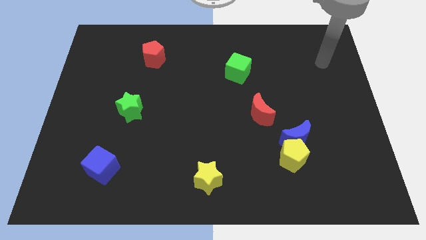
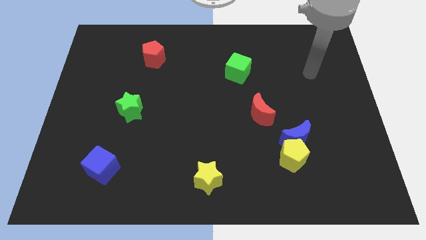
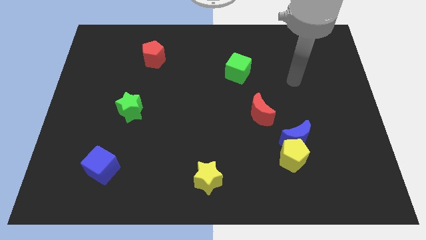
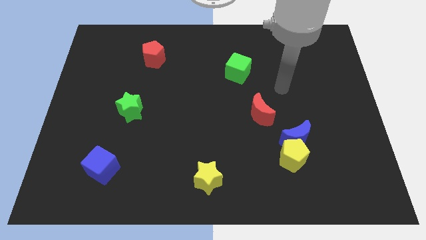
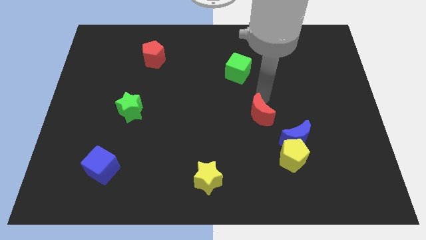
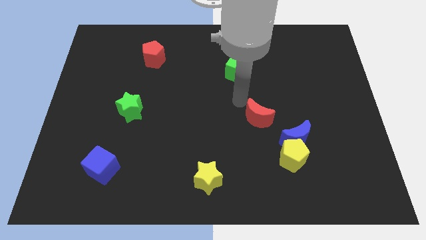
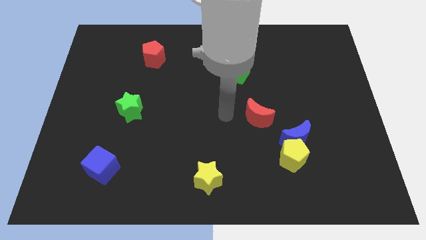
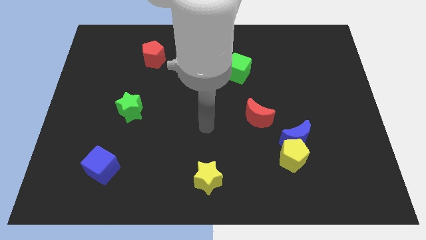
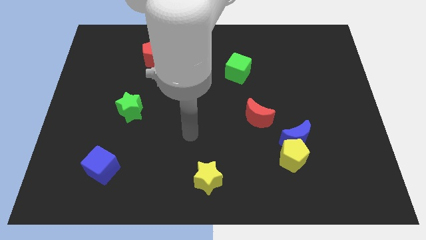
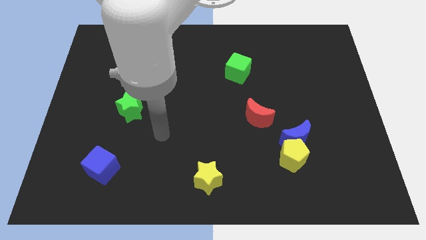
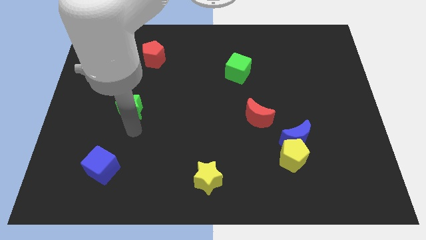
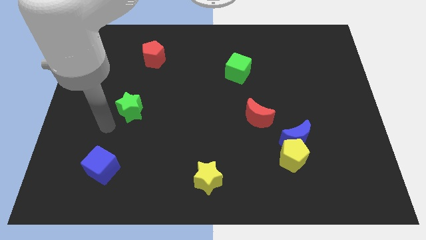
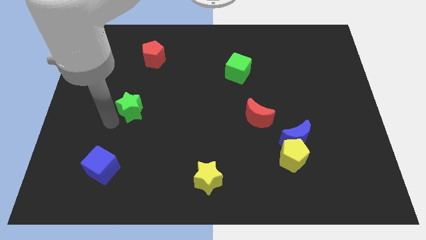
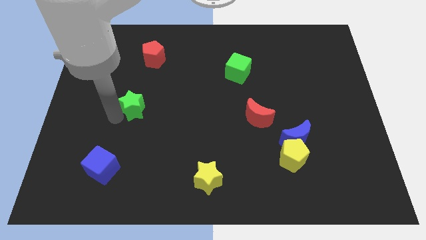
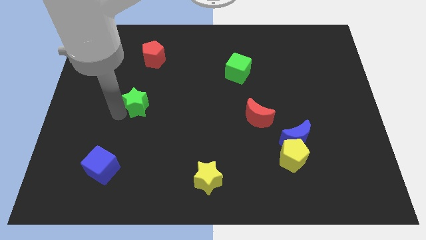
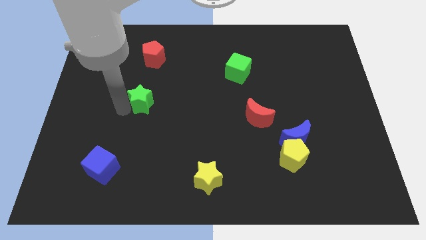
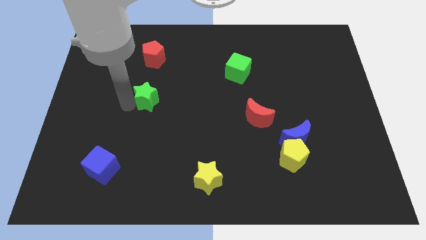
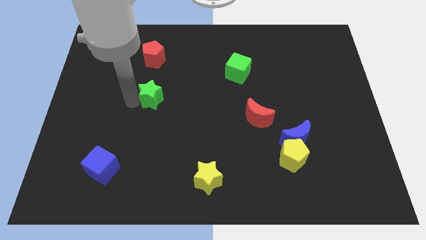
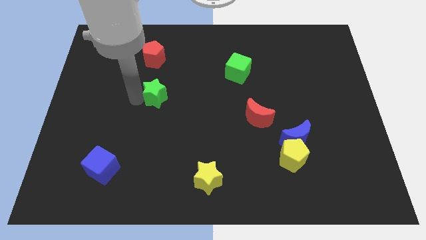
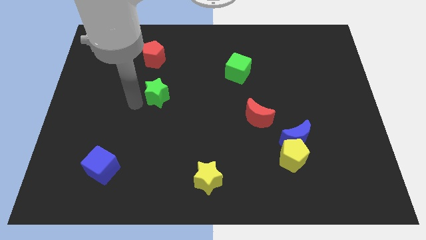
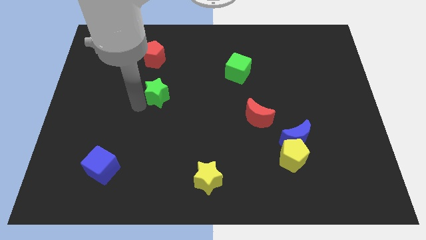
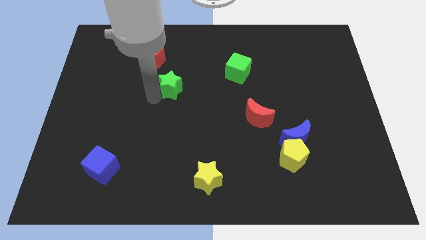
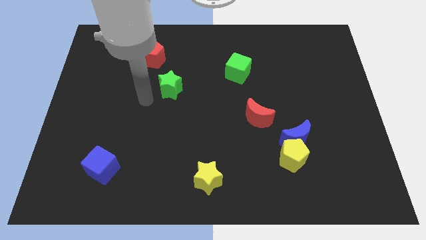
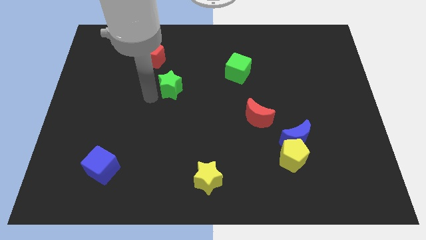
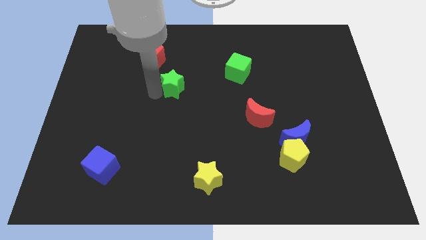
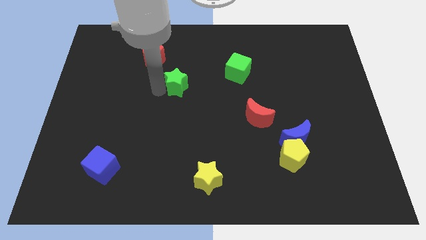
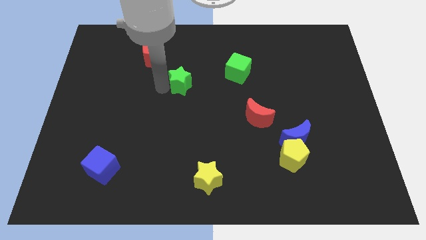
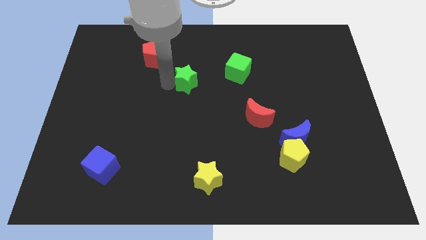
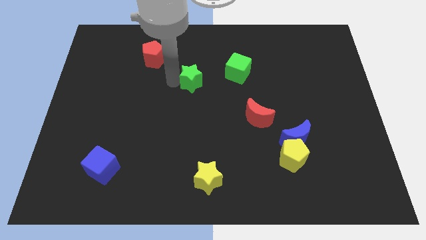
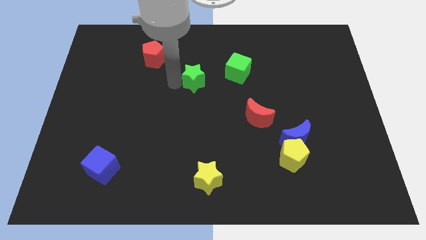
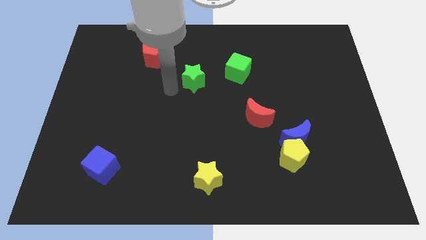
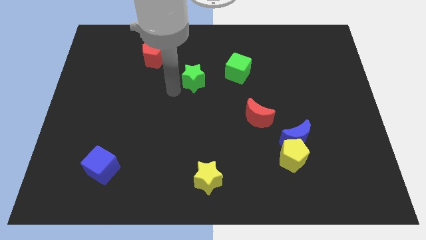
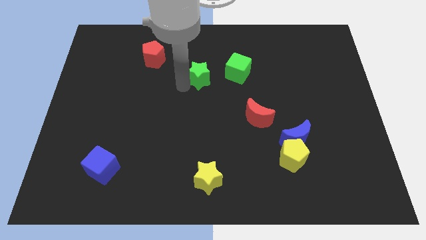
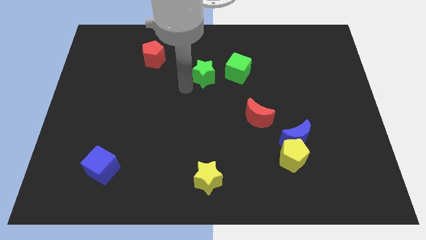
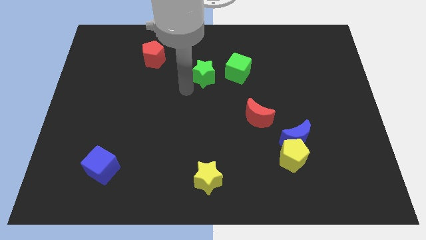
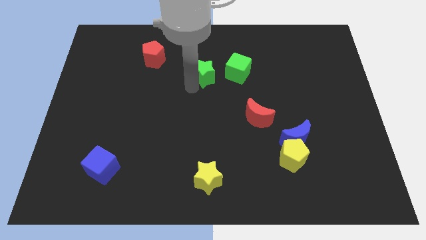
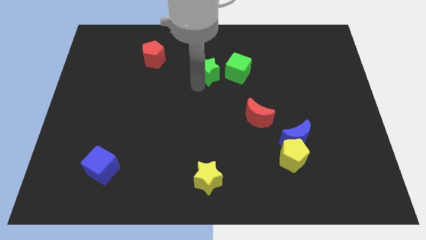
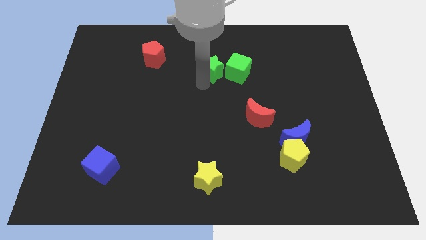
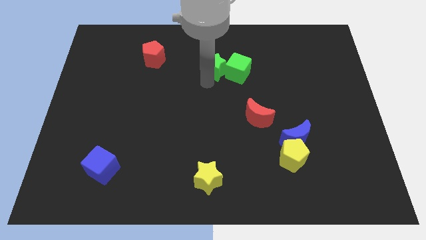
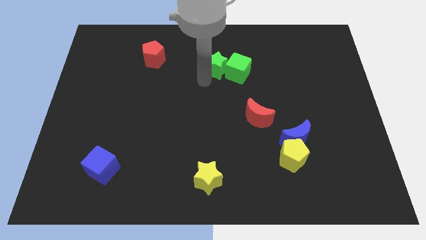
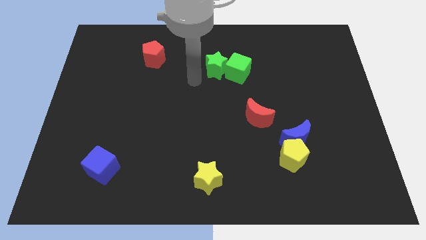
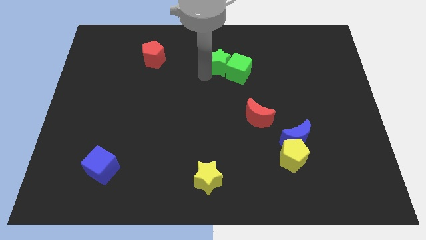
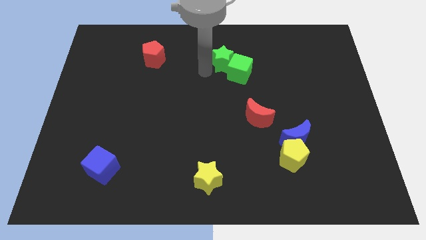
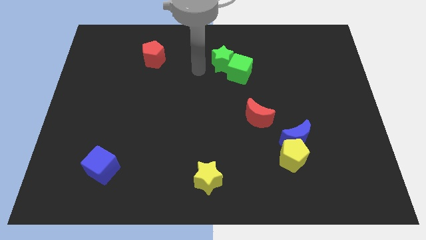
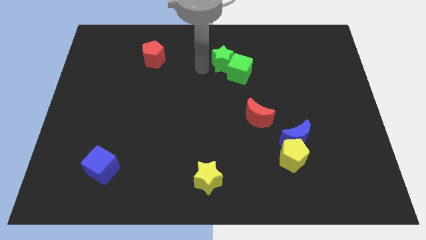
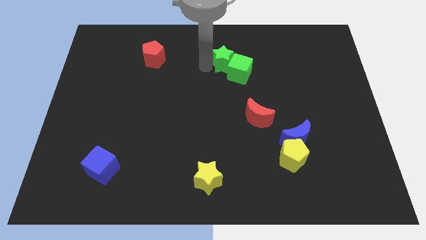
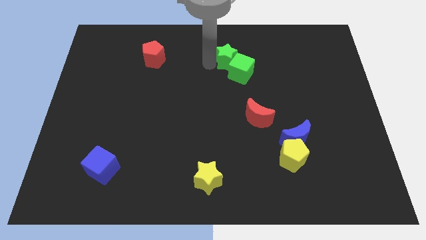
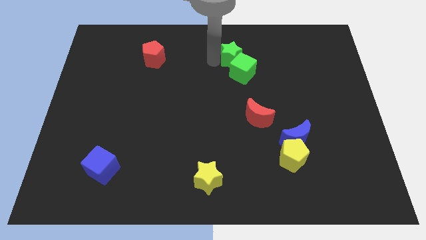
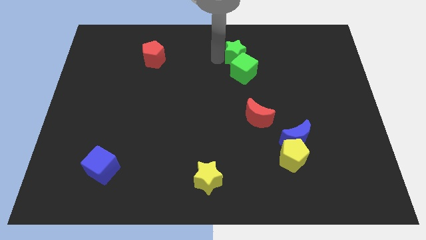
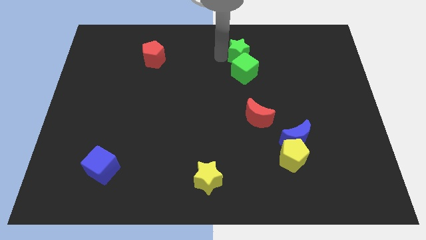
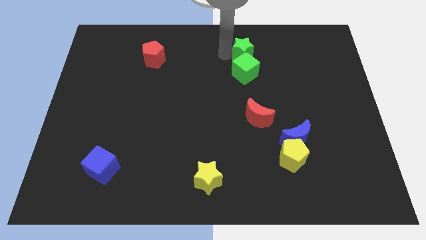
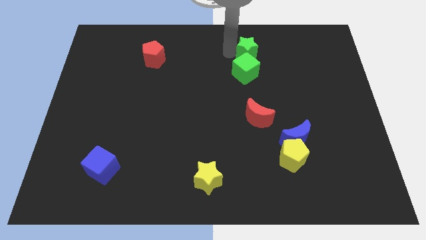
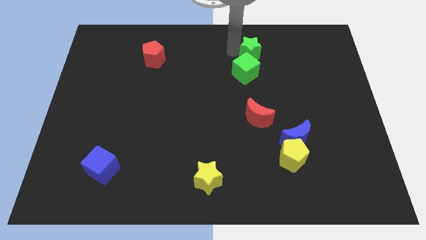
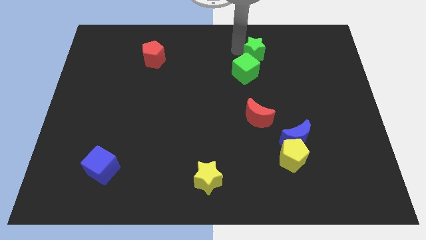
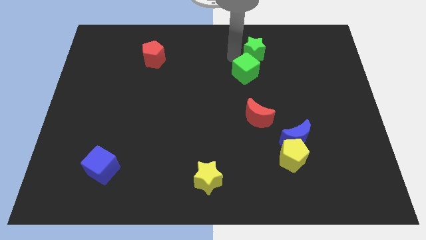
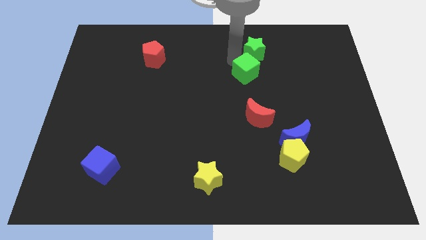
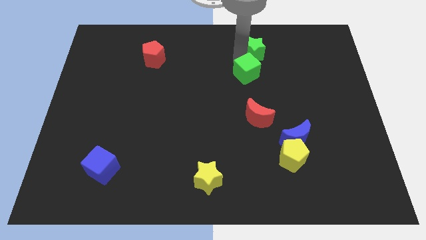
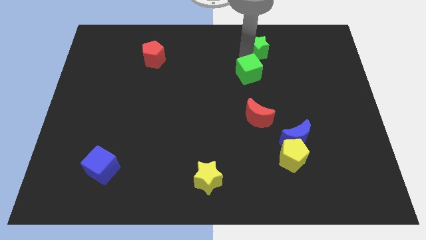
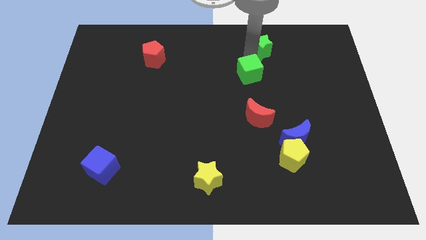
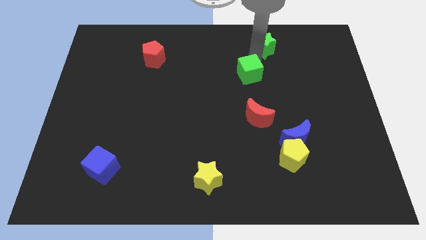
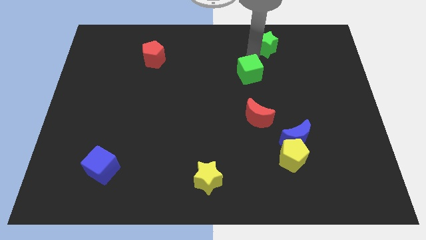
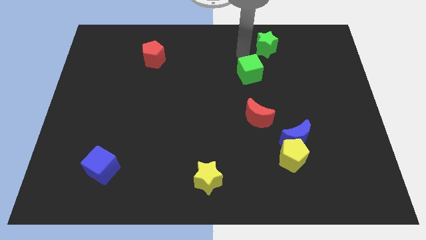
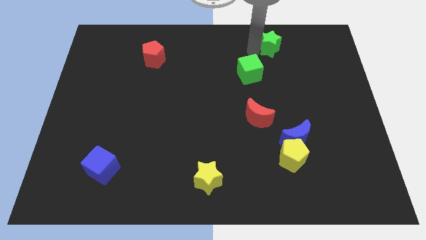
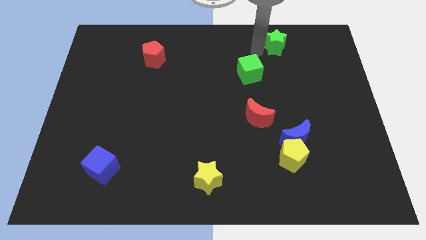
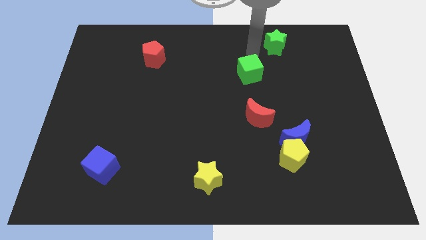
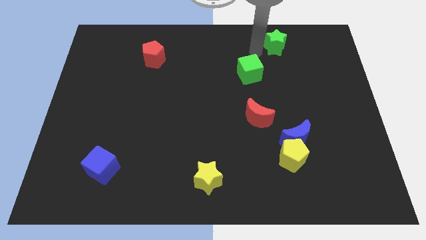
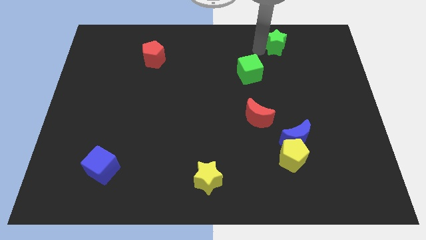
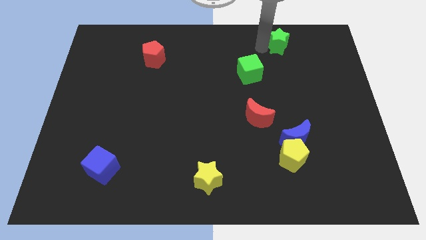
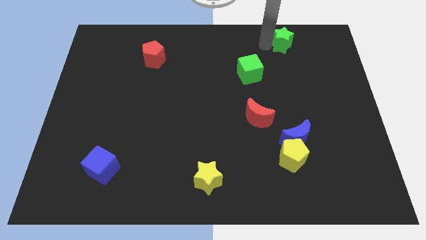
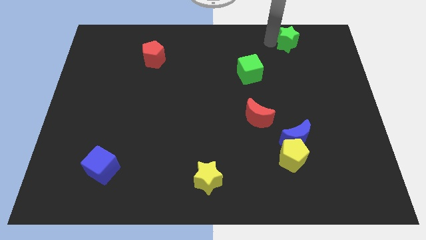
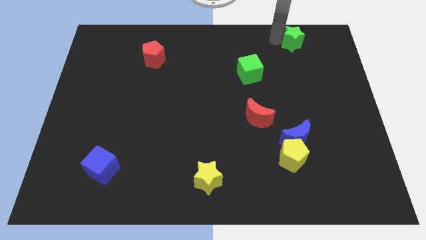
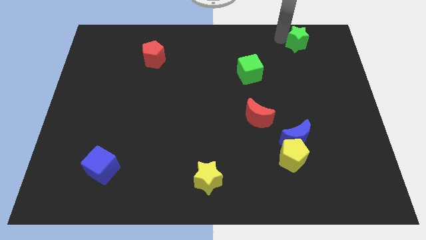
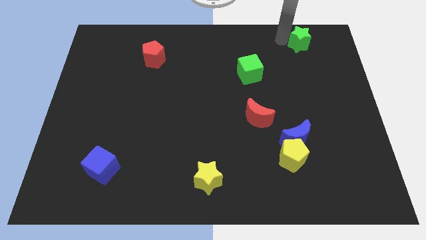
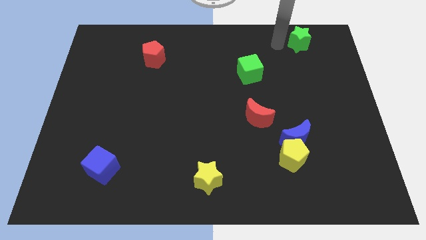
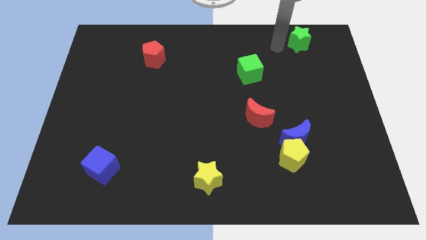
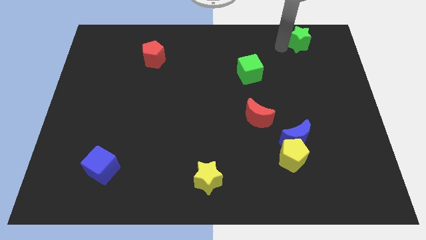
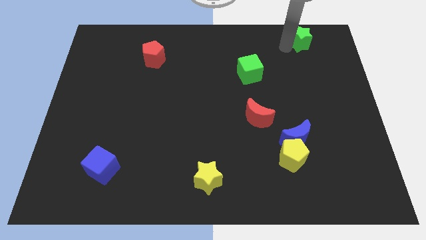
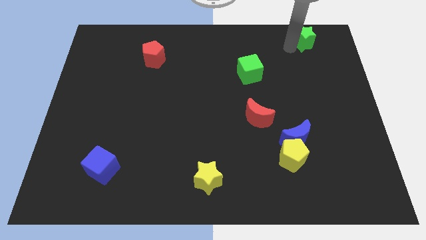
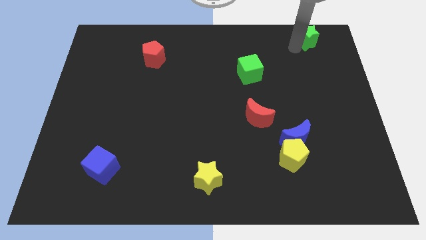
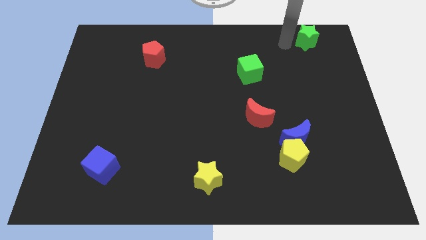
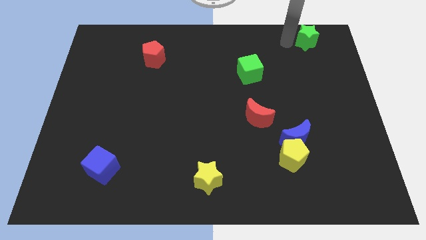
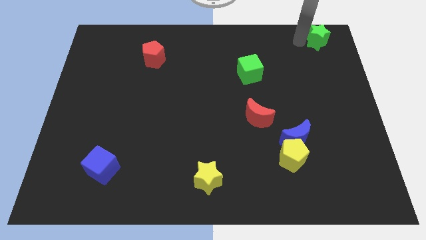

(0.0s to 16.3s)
move the green star to the top right
